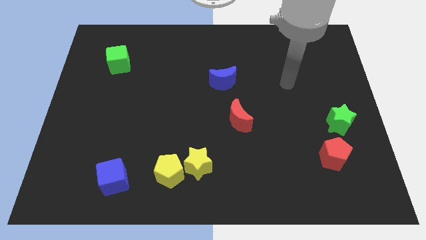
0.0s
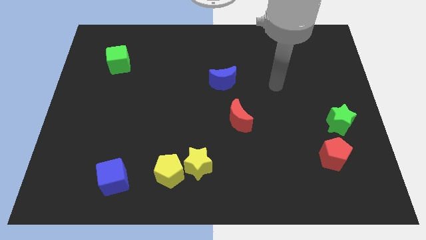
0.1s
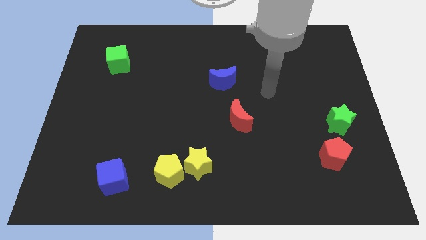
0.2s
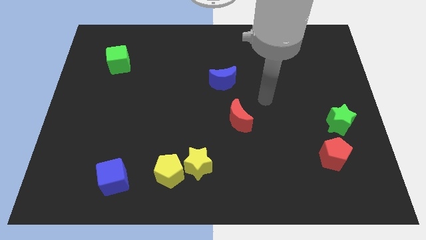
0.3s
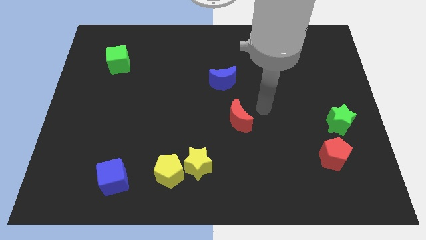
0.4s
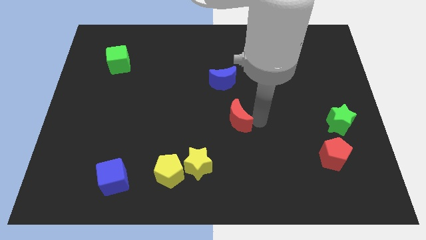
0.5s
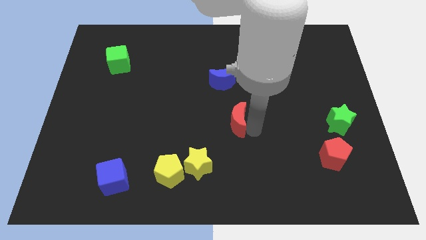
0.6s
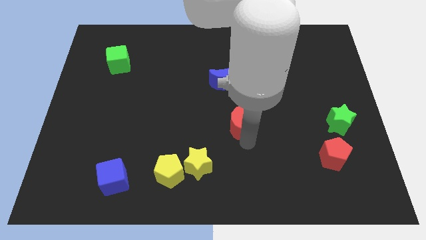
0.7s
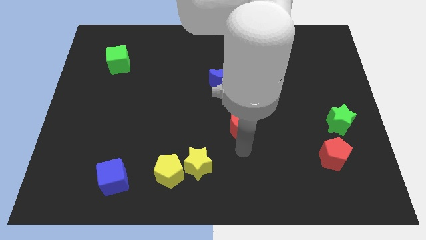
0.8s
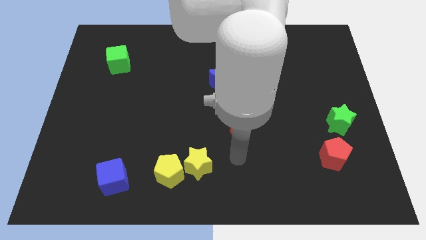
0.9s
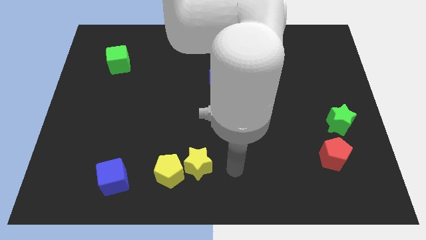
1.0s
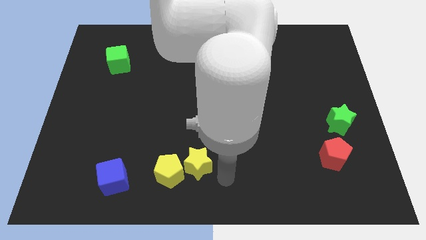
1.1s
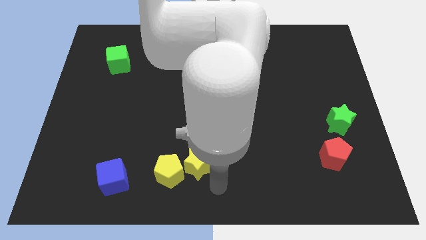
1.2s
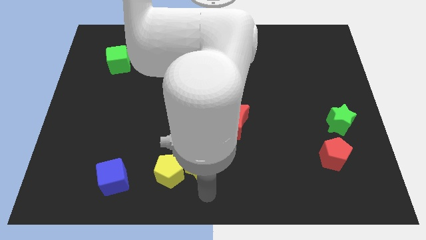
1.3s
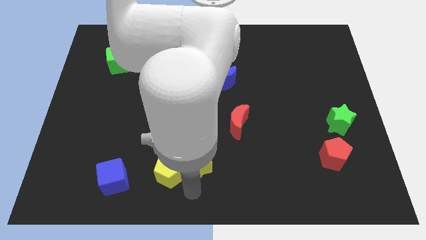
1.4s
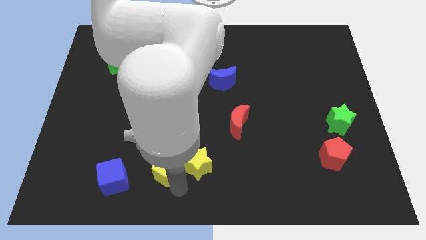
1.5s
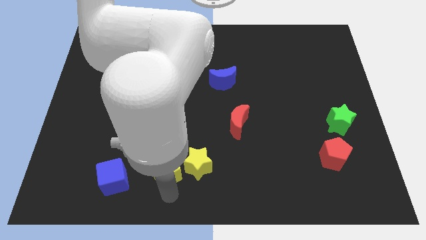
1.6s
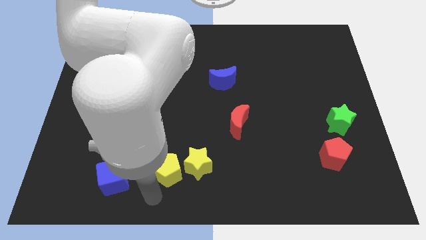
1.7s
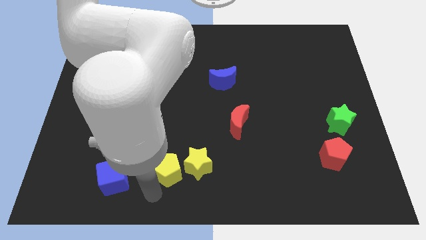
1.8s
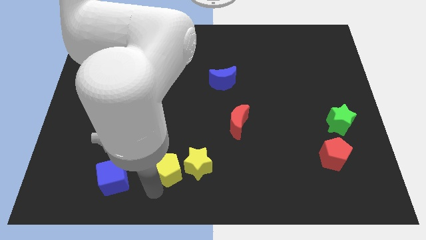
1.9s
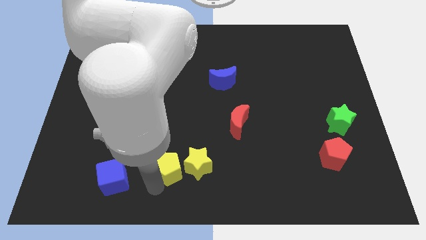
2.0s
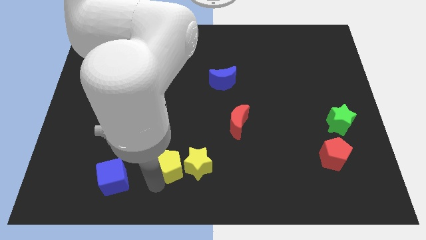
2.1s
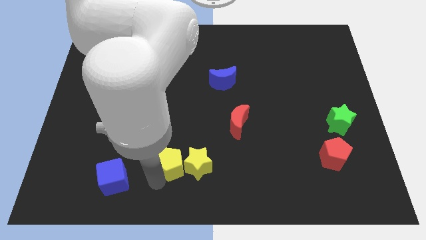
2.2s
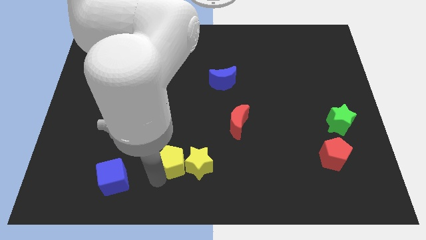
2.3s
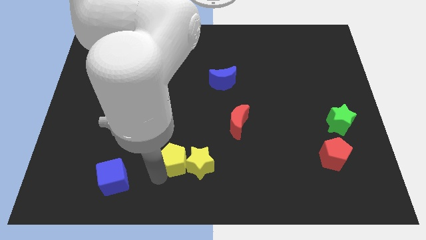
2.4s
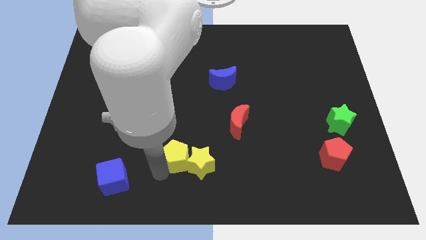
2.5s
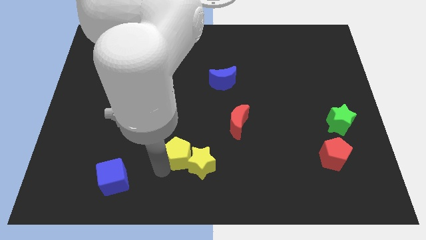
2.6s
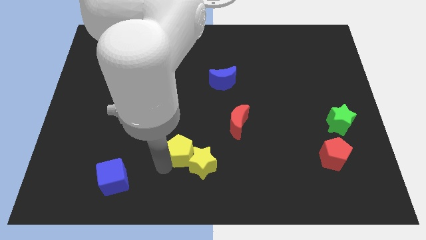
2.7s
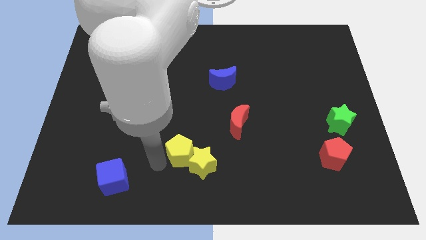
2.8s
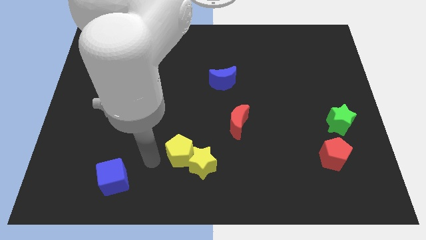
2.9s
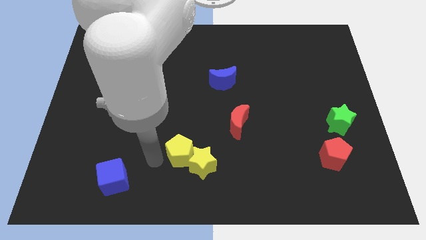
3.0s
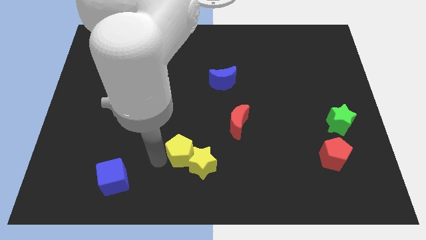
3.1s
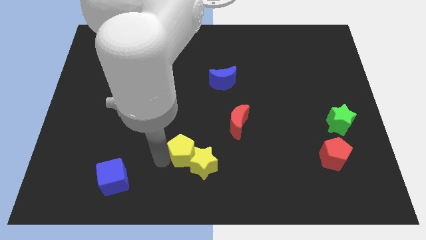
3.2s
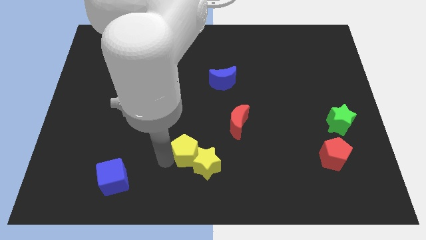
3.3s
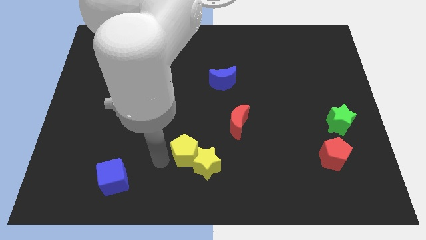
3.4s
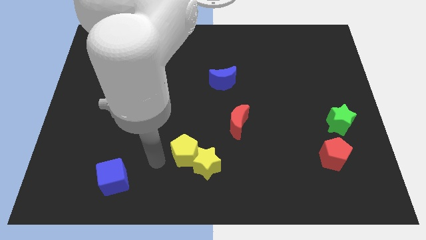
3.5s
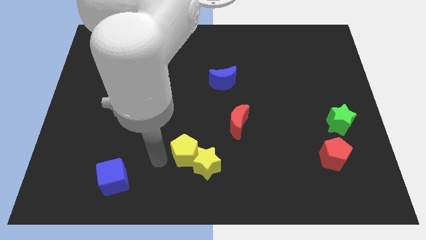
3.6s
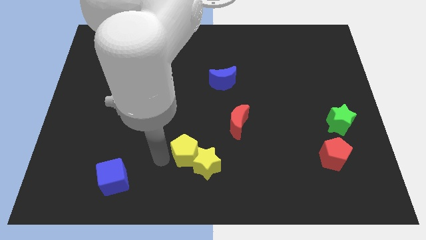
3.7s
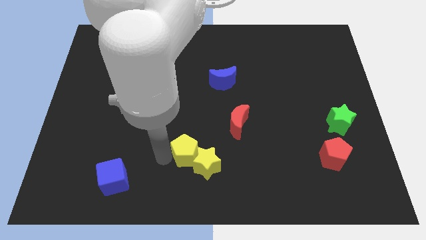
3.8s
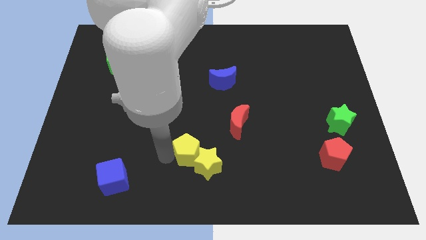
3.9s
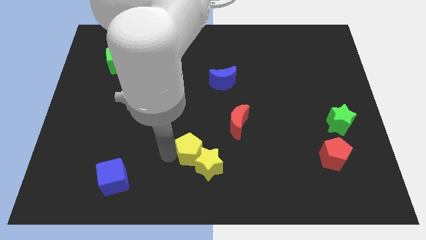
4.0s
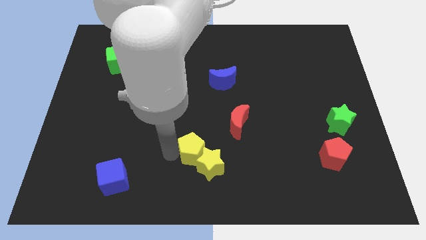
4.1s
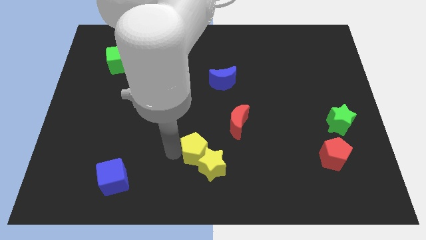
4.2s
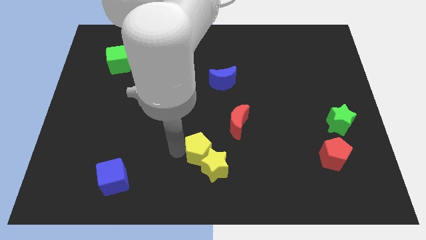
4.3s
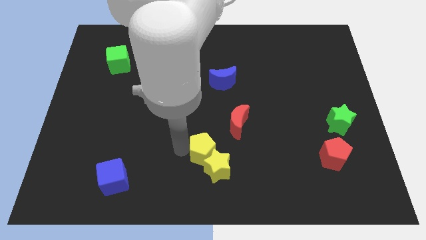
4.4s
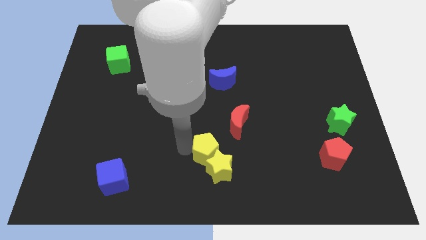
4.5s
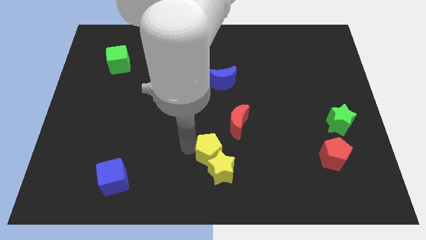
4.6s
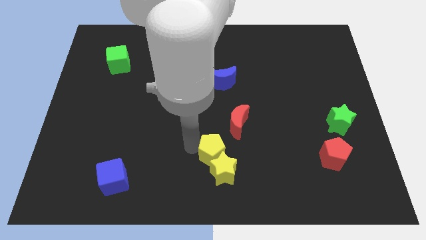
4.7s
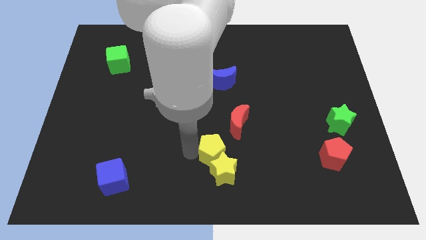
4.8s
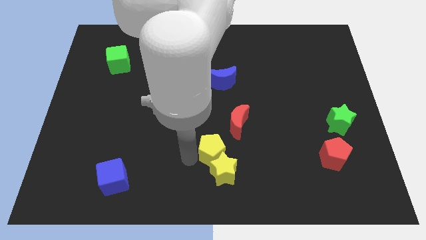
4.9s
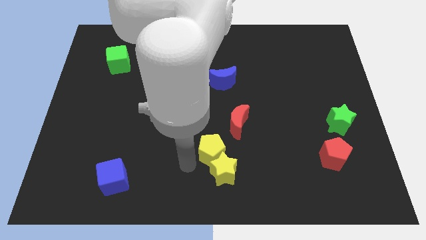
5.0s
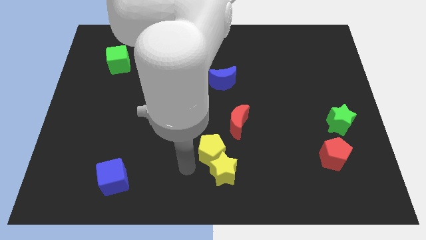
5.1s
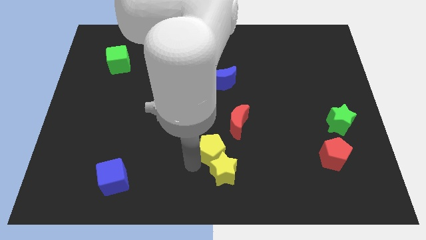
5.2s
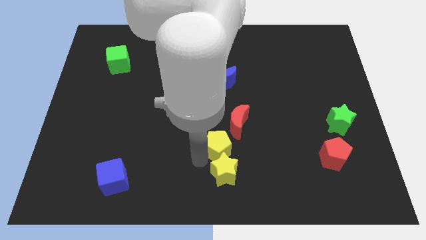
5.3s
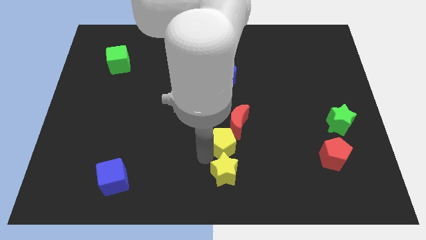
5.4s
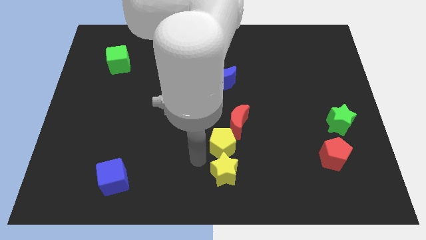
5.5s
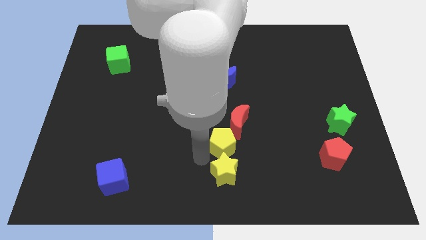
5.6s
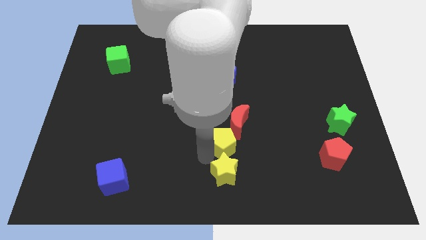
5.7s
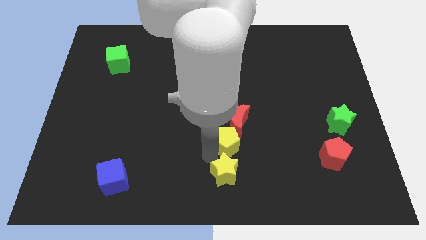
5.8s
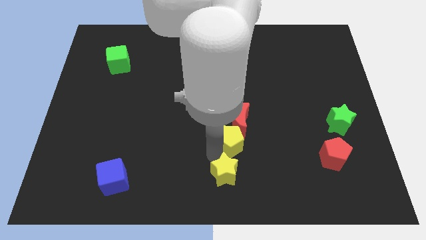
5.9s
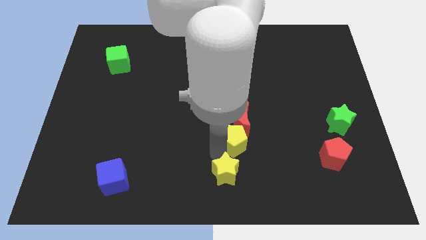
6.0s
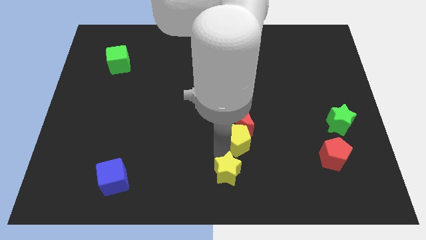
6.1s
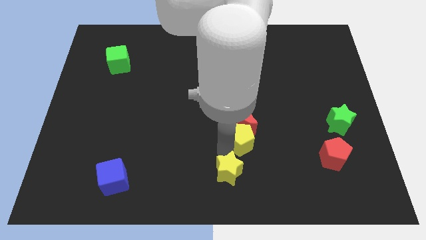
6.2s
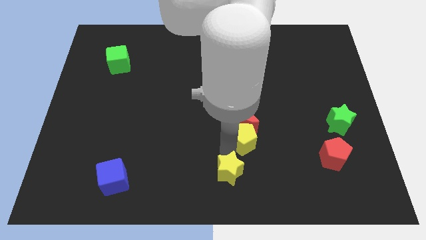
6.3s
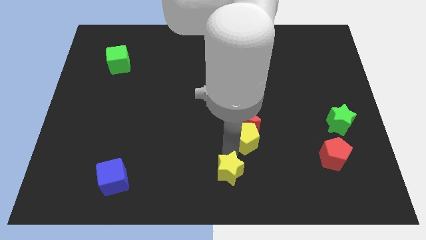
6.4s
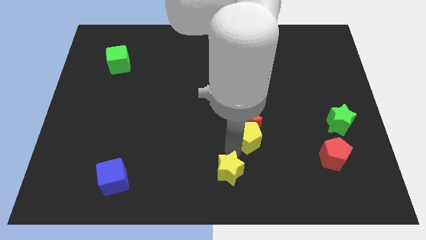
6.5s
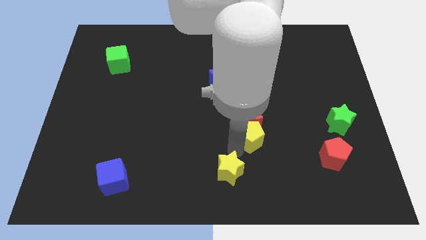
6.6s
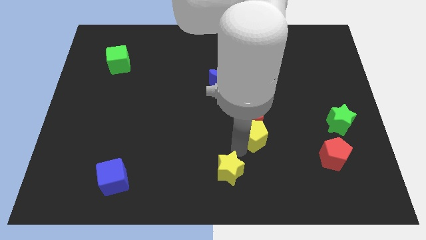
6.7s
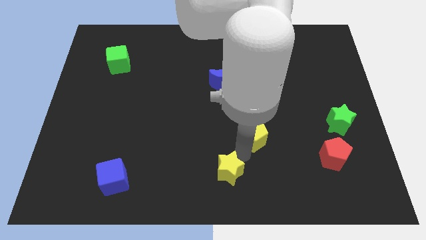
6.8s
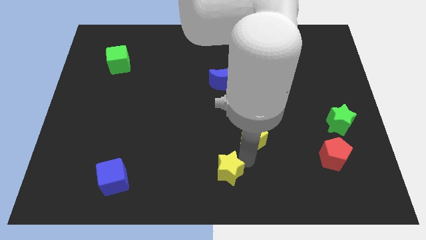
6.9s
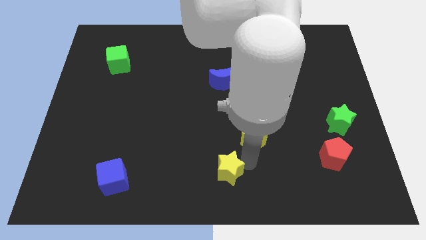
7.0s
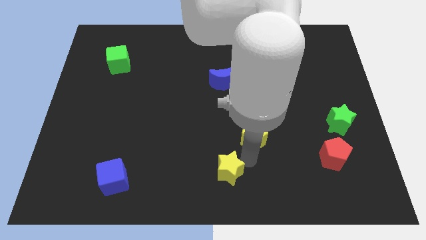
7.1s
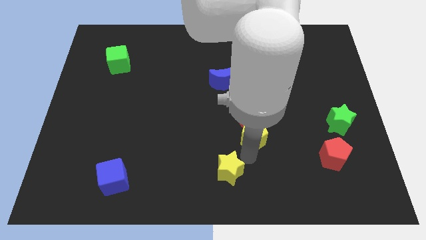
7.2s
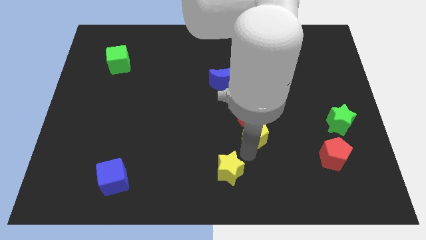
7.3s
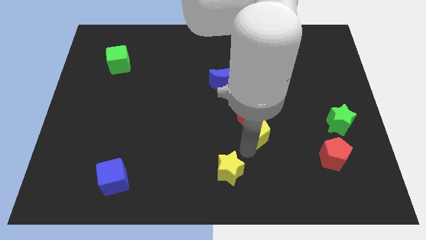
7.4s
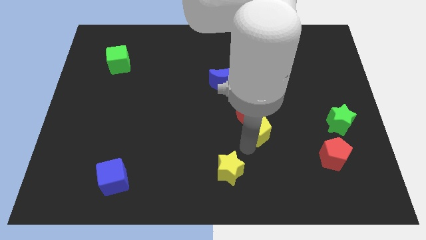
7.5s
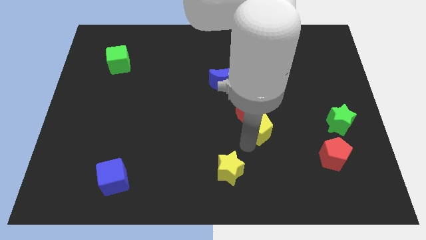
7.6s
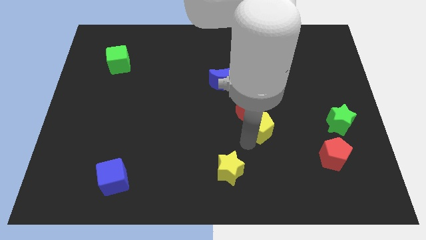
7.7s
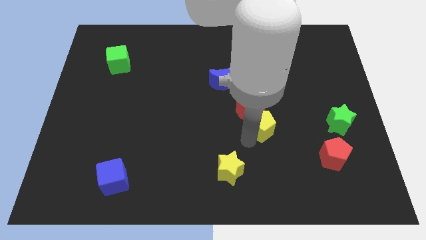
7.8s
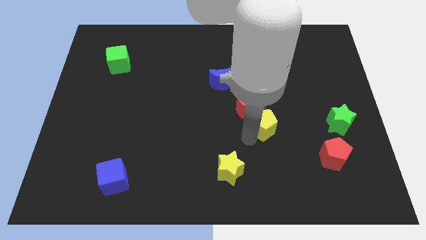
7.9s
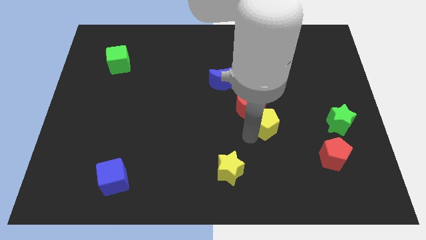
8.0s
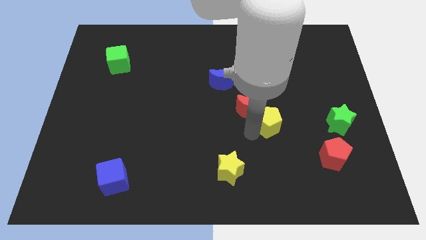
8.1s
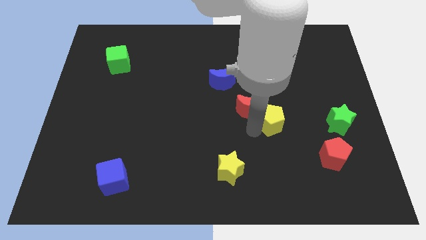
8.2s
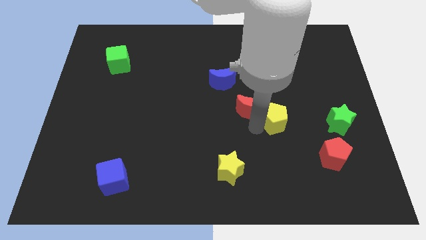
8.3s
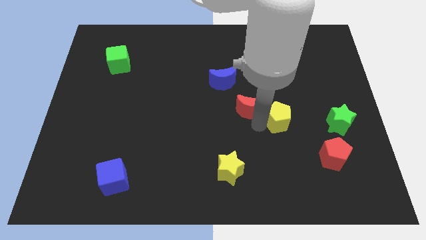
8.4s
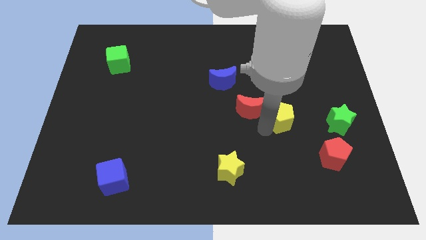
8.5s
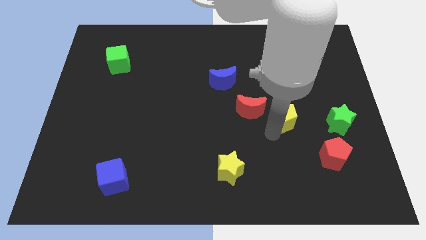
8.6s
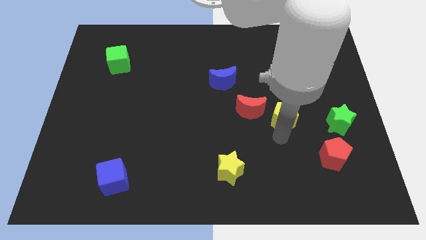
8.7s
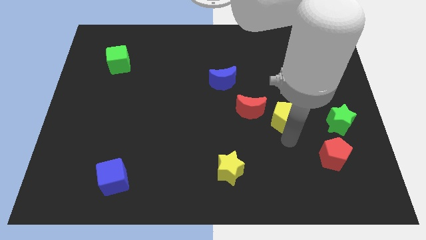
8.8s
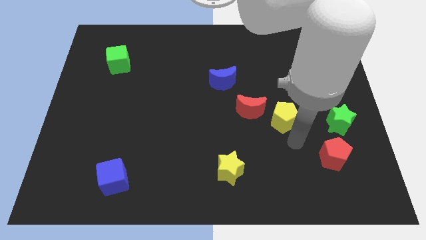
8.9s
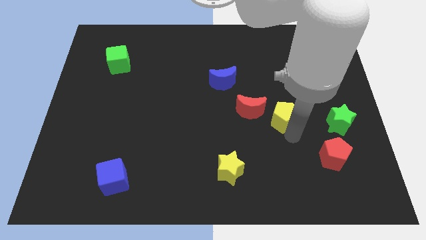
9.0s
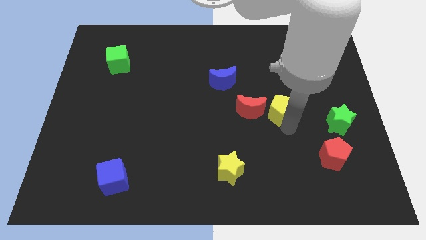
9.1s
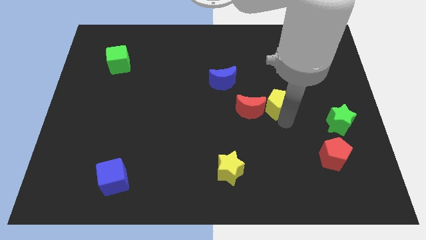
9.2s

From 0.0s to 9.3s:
push the yellow pentagon diagonally up and to the right of the red moon
